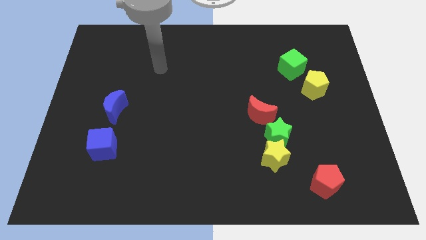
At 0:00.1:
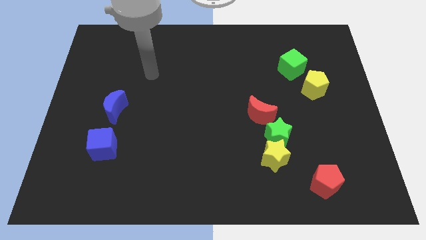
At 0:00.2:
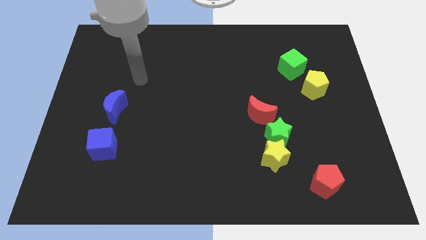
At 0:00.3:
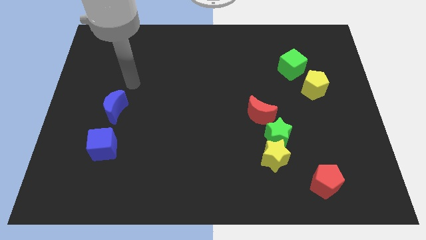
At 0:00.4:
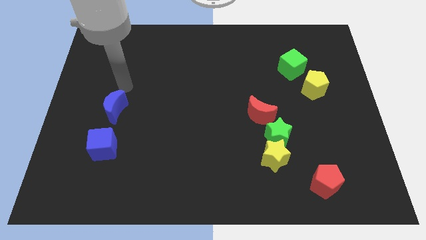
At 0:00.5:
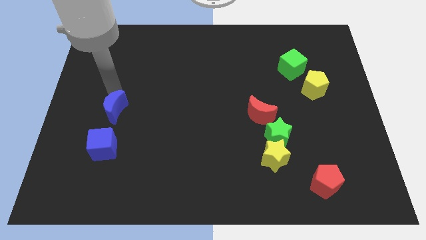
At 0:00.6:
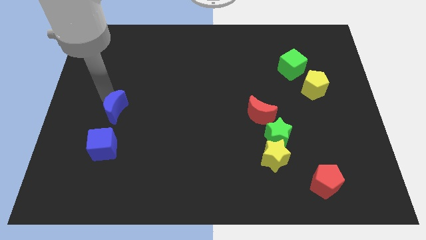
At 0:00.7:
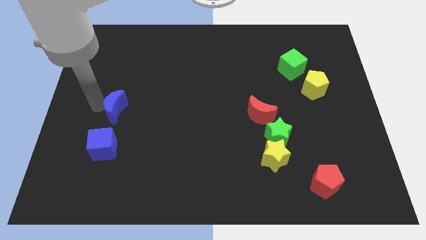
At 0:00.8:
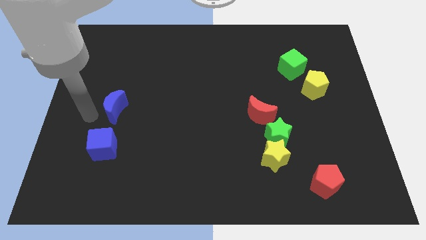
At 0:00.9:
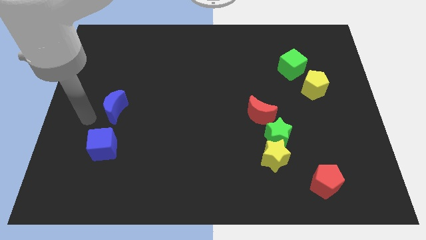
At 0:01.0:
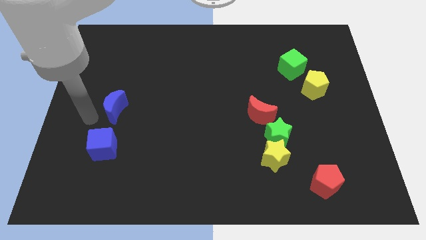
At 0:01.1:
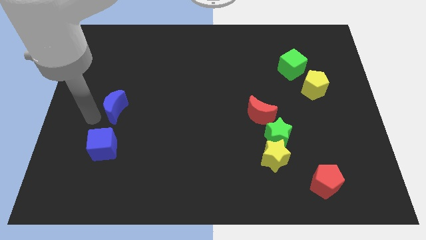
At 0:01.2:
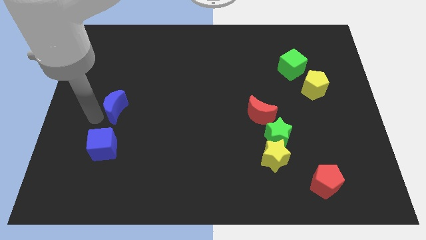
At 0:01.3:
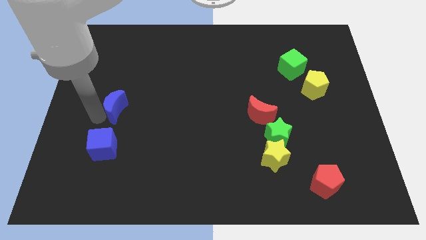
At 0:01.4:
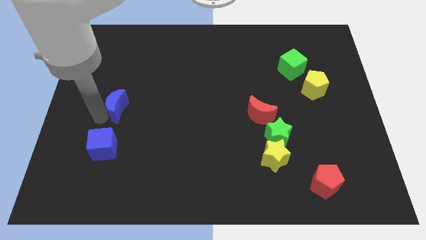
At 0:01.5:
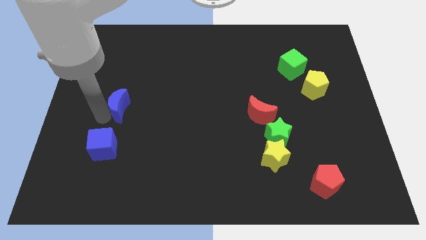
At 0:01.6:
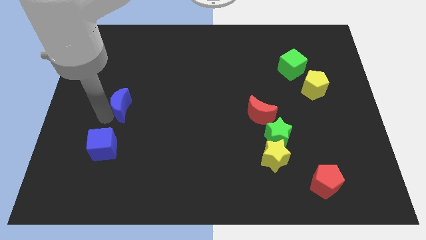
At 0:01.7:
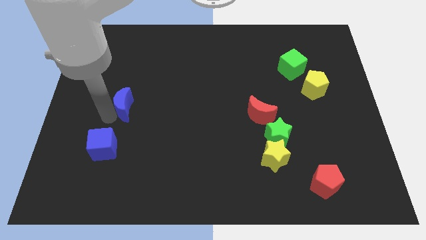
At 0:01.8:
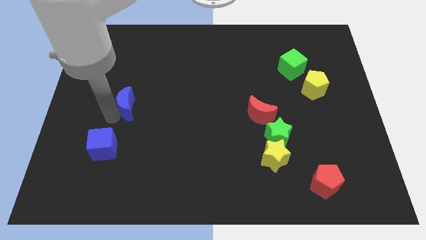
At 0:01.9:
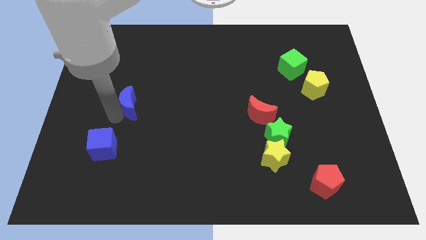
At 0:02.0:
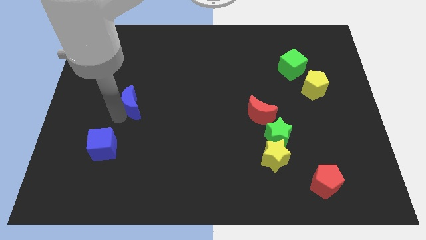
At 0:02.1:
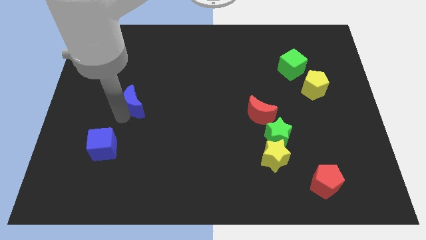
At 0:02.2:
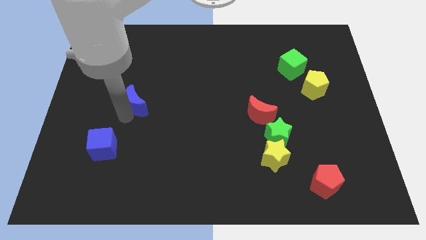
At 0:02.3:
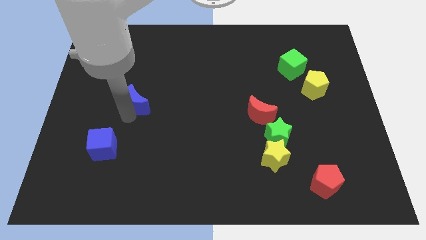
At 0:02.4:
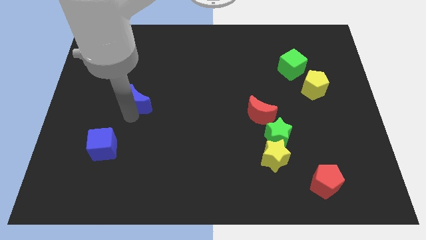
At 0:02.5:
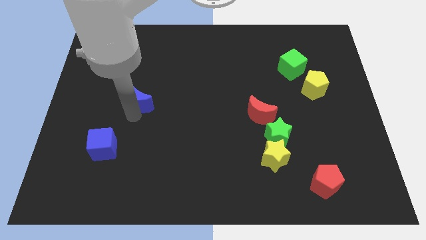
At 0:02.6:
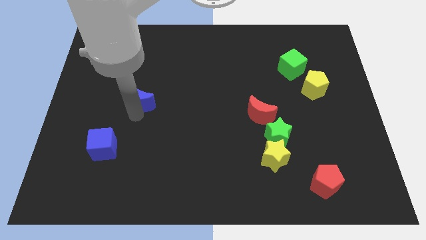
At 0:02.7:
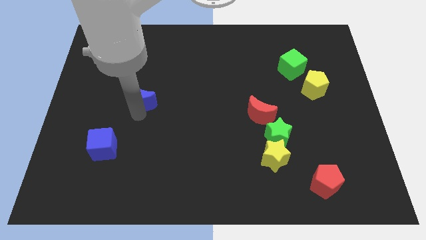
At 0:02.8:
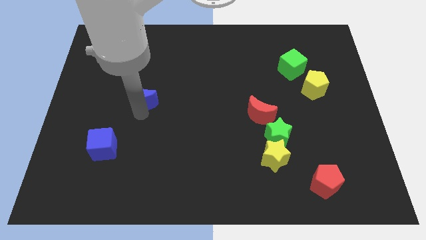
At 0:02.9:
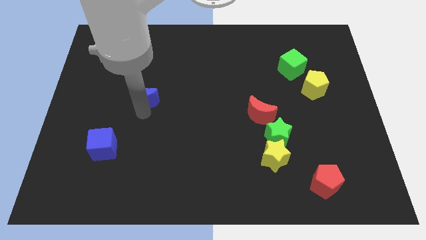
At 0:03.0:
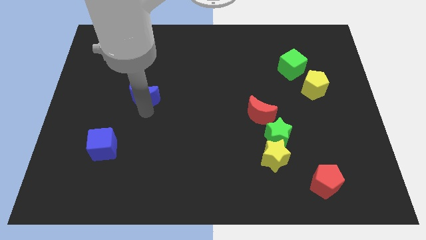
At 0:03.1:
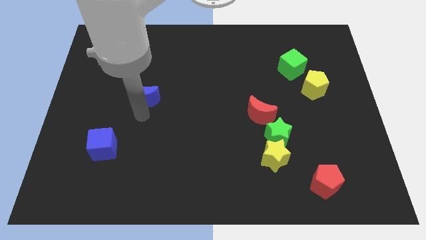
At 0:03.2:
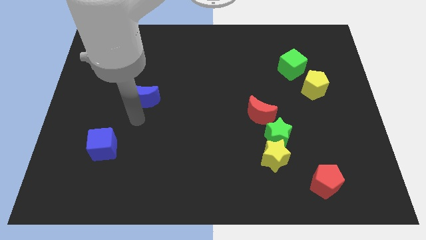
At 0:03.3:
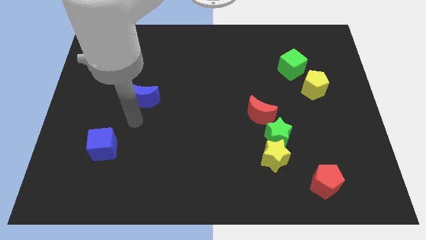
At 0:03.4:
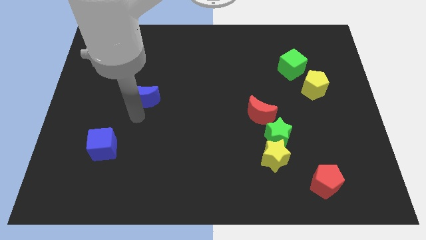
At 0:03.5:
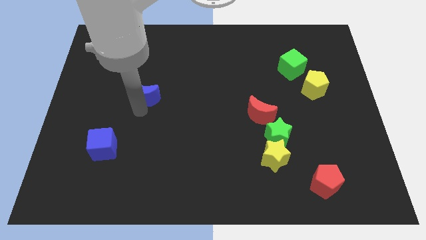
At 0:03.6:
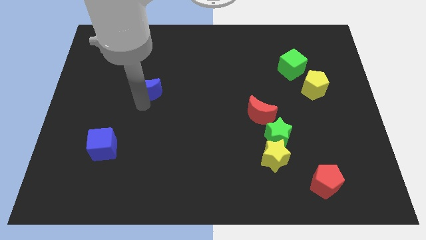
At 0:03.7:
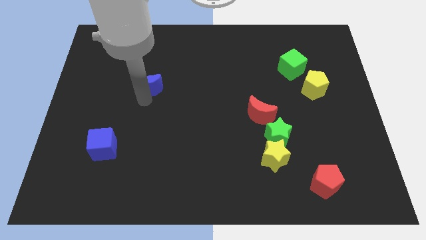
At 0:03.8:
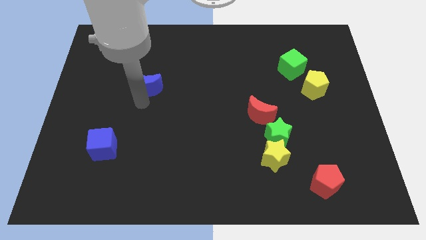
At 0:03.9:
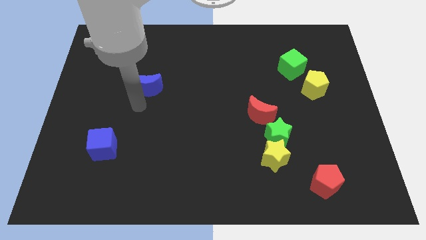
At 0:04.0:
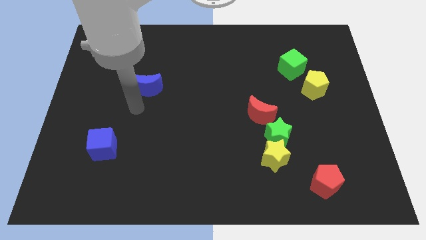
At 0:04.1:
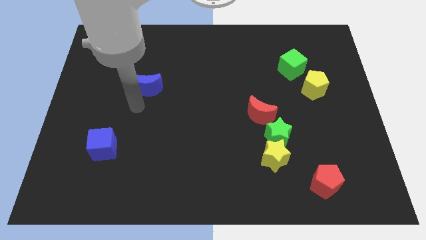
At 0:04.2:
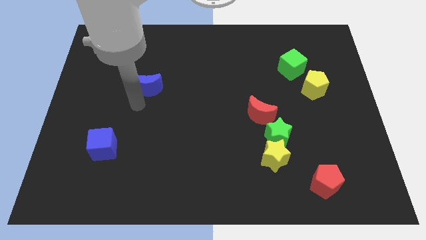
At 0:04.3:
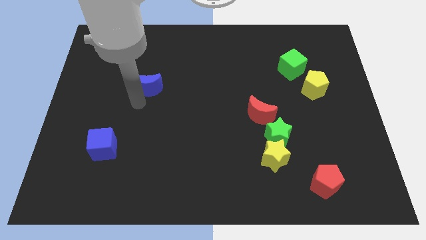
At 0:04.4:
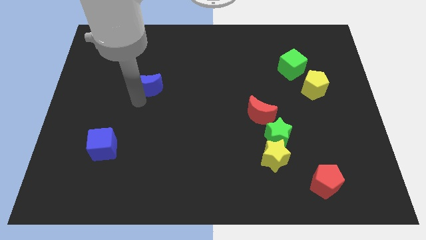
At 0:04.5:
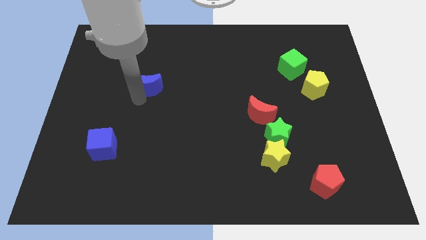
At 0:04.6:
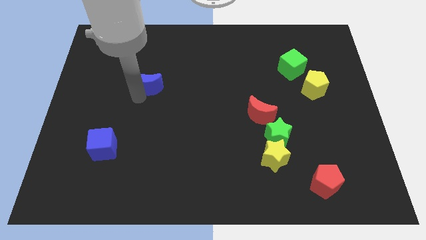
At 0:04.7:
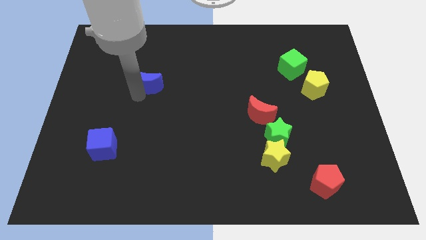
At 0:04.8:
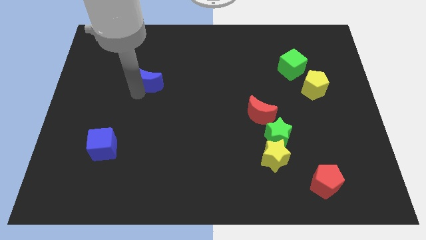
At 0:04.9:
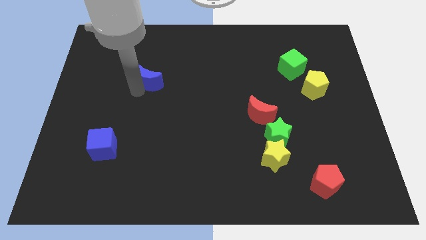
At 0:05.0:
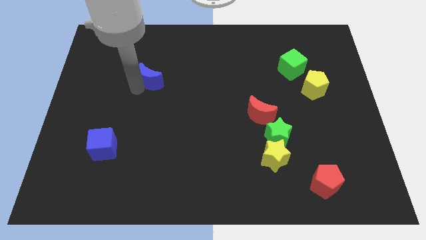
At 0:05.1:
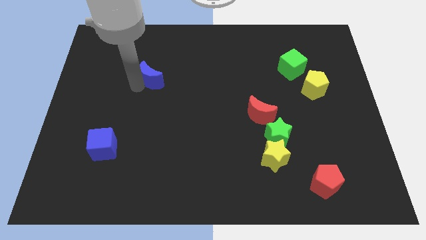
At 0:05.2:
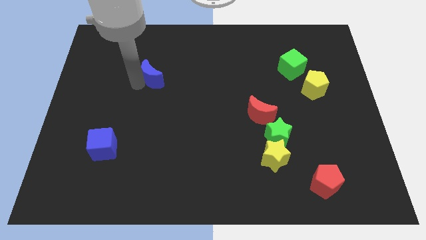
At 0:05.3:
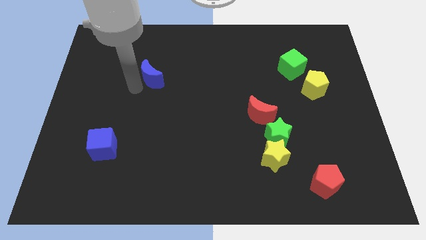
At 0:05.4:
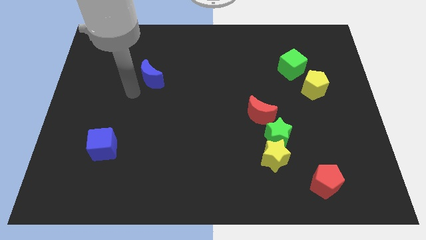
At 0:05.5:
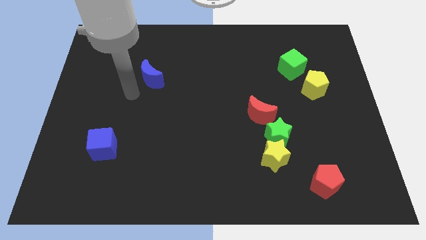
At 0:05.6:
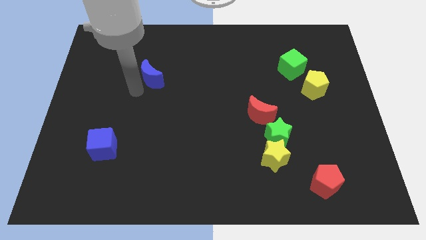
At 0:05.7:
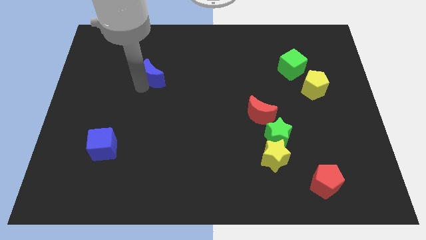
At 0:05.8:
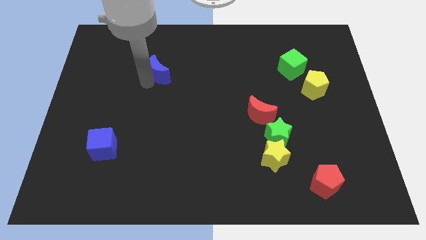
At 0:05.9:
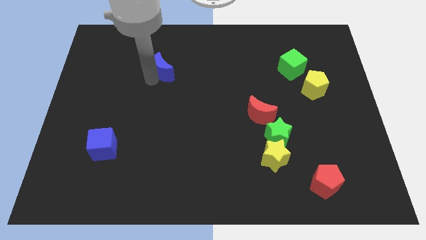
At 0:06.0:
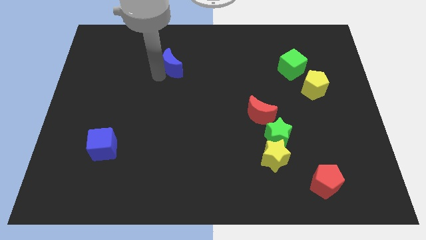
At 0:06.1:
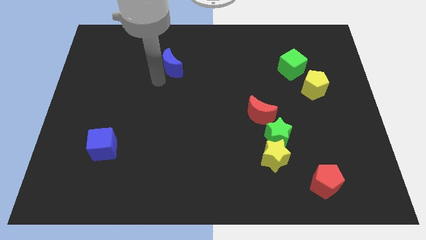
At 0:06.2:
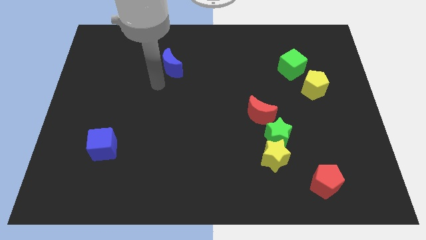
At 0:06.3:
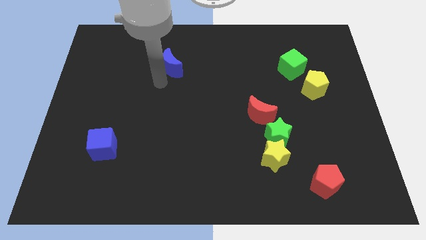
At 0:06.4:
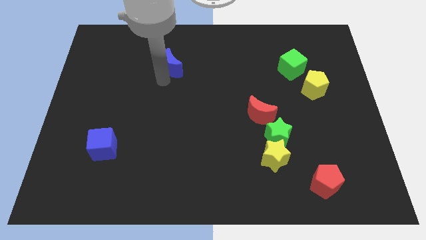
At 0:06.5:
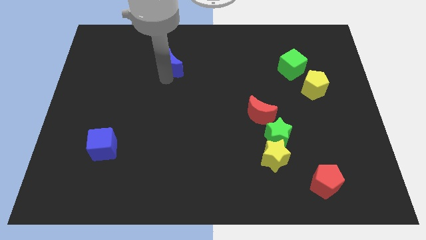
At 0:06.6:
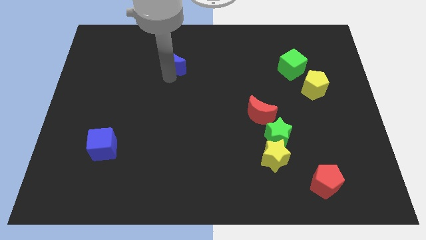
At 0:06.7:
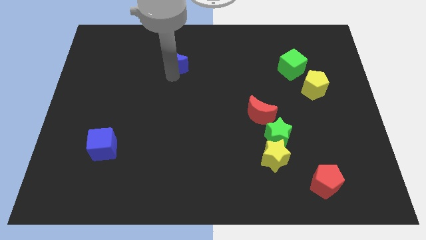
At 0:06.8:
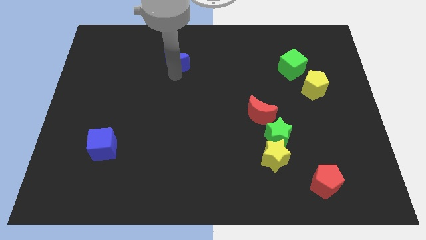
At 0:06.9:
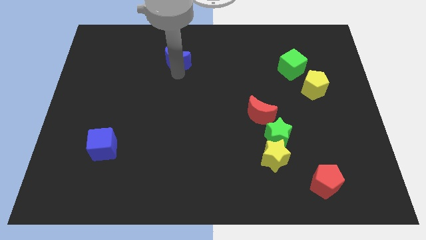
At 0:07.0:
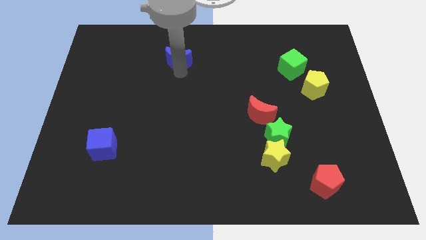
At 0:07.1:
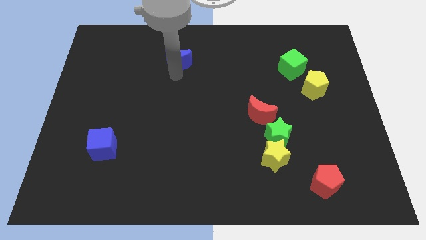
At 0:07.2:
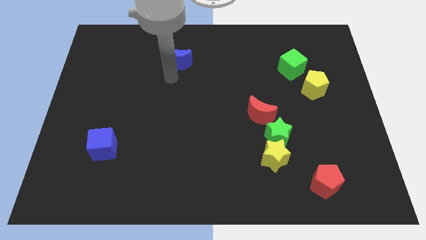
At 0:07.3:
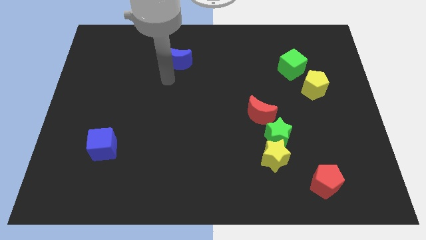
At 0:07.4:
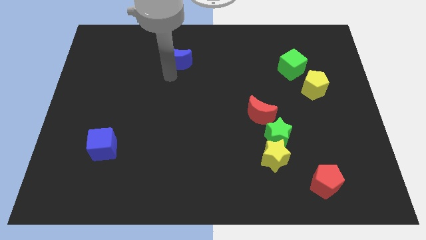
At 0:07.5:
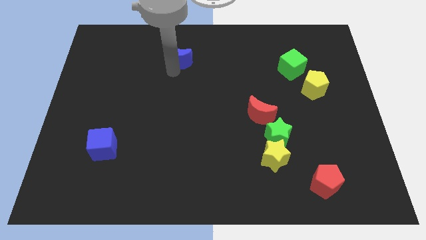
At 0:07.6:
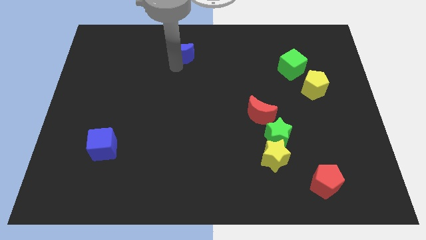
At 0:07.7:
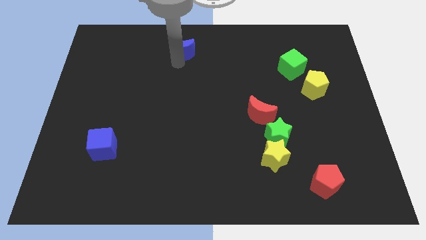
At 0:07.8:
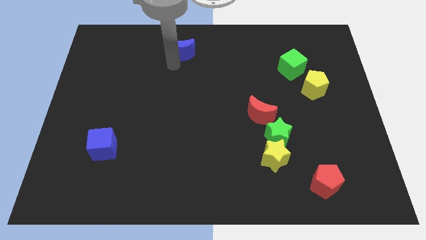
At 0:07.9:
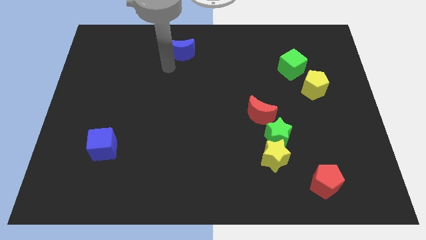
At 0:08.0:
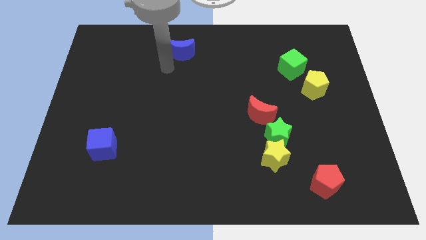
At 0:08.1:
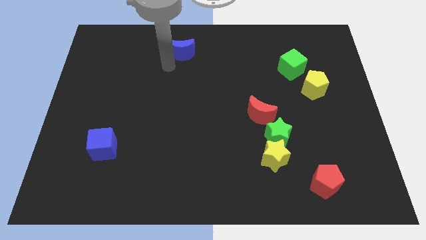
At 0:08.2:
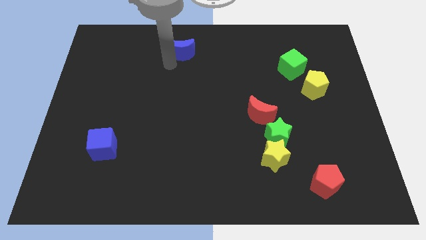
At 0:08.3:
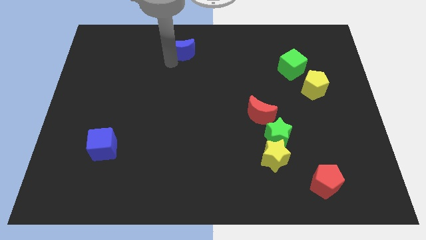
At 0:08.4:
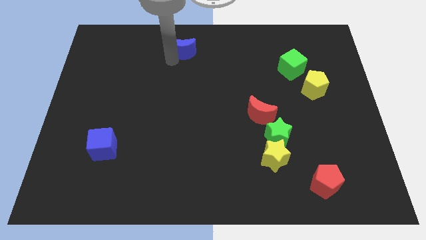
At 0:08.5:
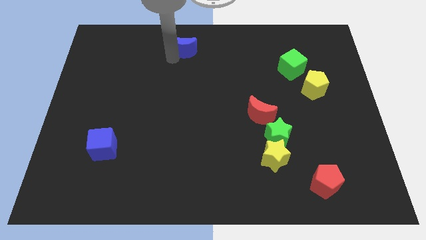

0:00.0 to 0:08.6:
put the blue moon to the towards your base
